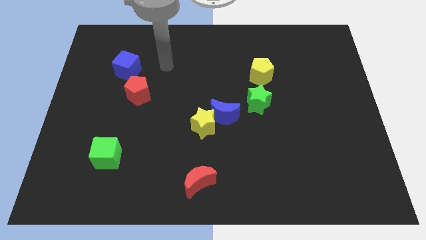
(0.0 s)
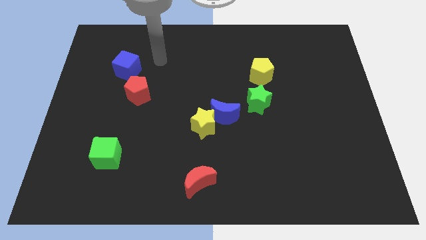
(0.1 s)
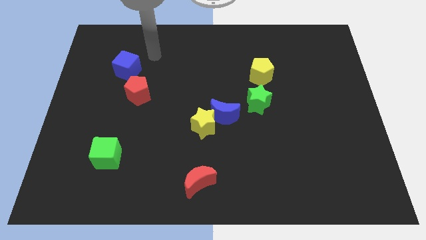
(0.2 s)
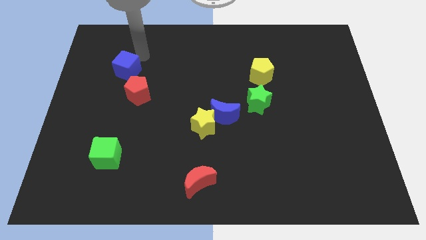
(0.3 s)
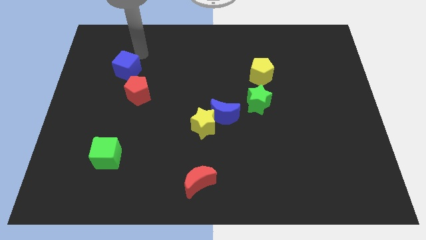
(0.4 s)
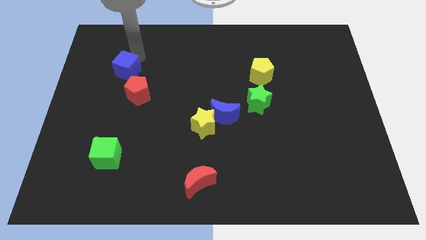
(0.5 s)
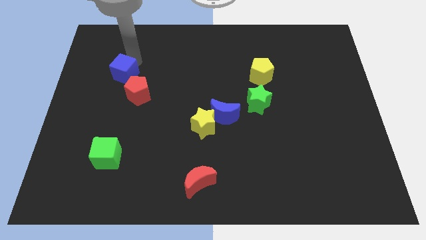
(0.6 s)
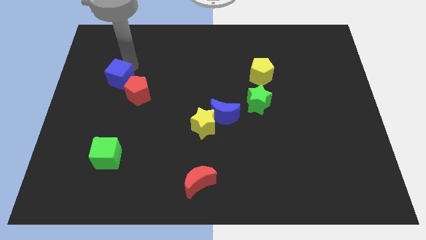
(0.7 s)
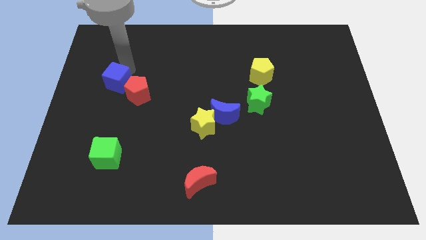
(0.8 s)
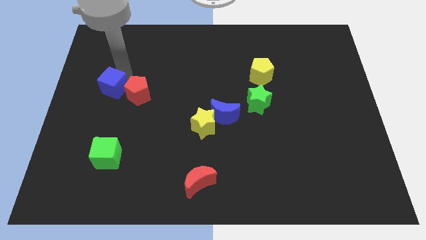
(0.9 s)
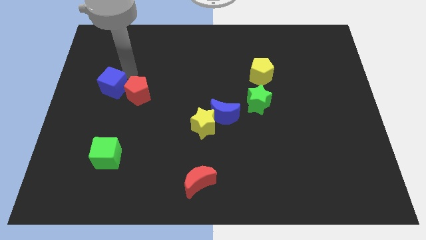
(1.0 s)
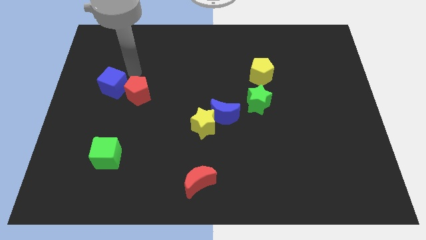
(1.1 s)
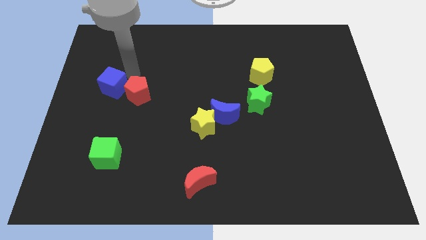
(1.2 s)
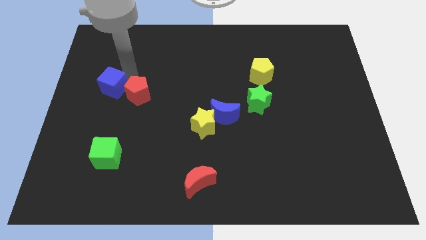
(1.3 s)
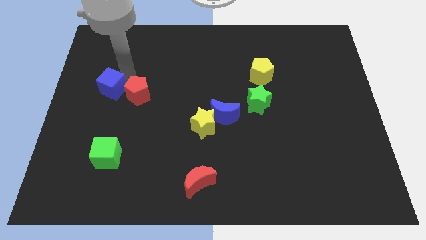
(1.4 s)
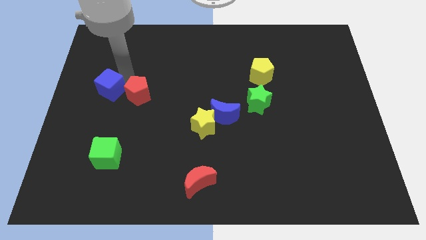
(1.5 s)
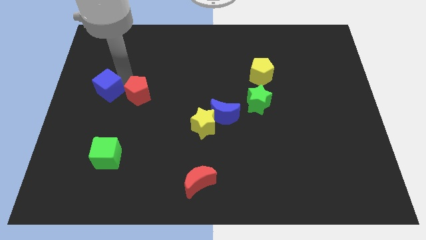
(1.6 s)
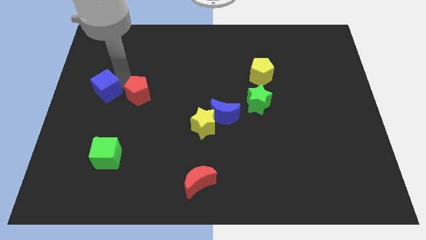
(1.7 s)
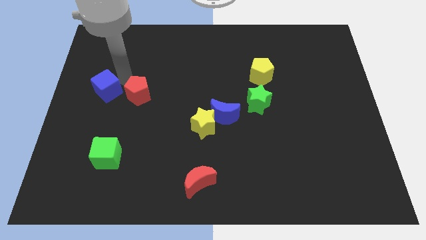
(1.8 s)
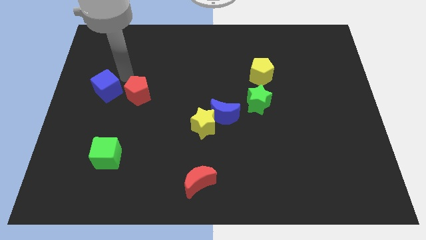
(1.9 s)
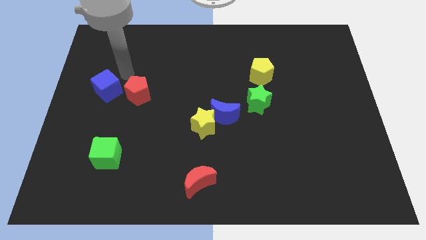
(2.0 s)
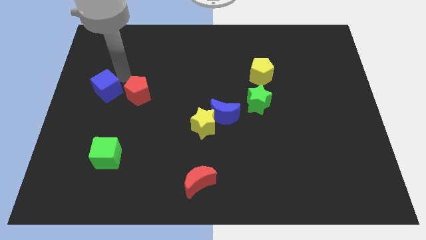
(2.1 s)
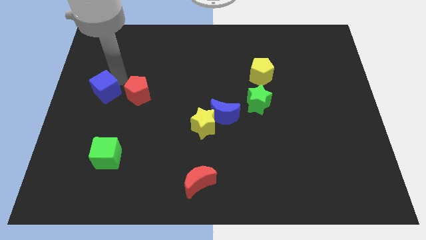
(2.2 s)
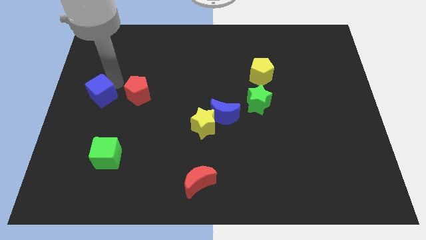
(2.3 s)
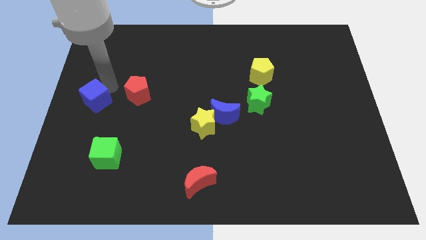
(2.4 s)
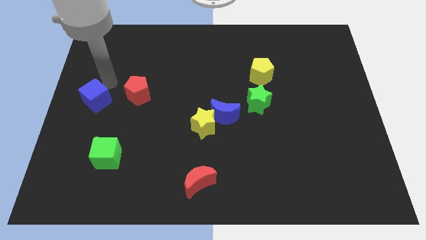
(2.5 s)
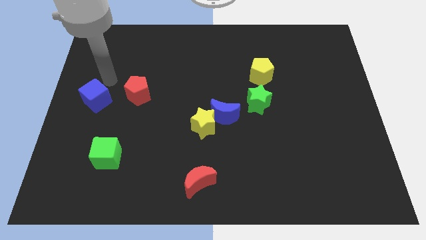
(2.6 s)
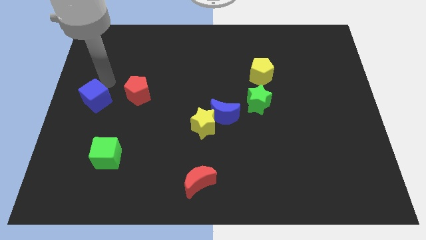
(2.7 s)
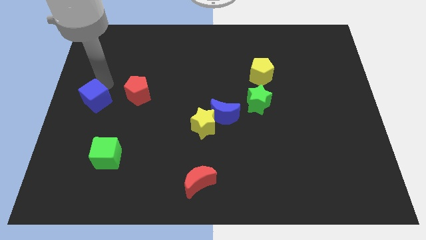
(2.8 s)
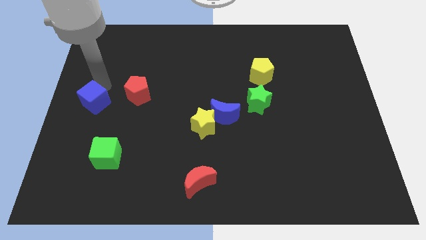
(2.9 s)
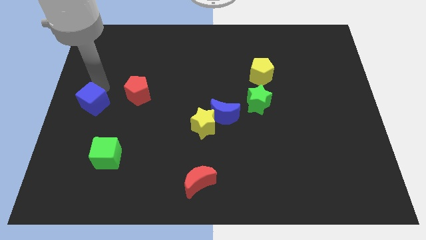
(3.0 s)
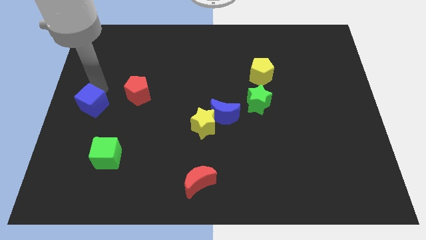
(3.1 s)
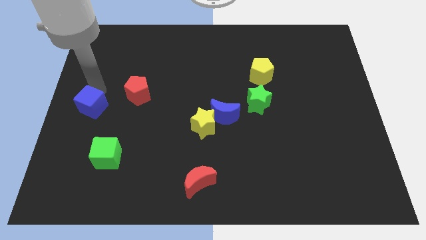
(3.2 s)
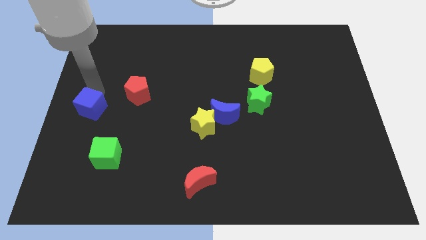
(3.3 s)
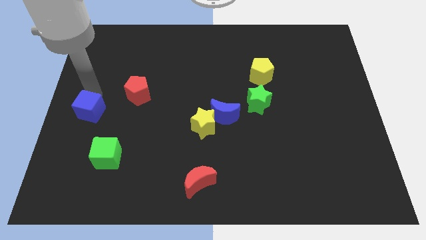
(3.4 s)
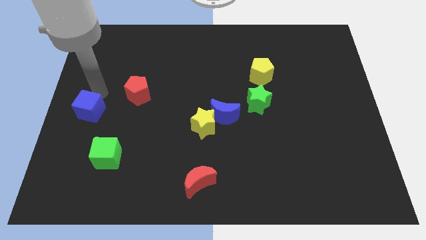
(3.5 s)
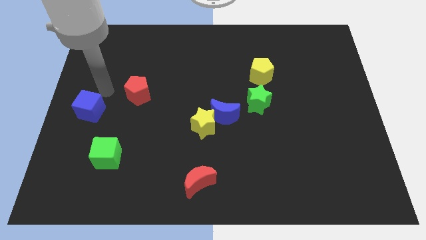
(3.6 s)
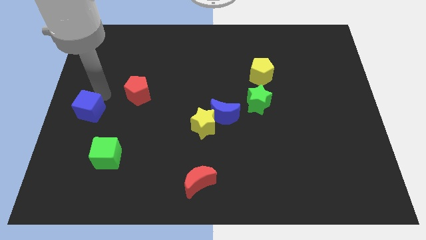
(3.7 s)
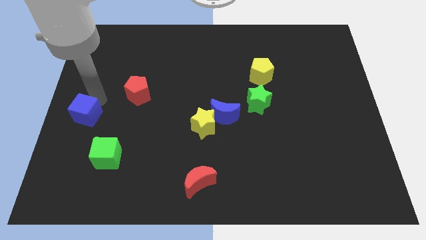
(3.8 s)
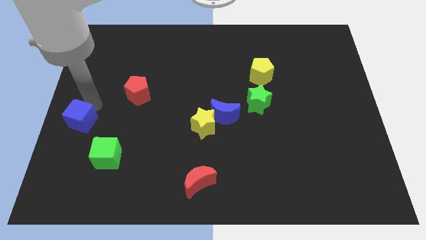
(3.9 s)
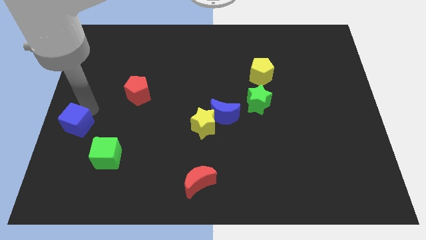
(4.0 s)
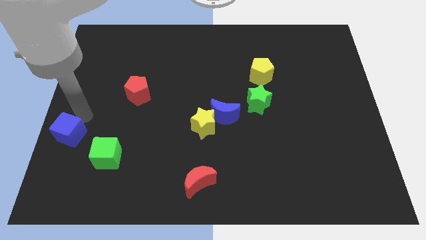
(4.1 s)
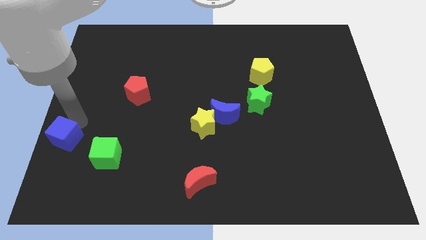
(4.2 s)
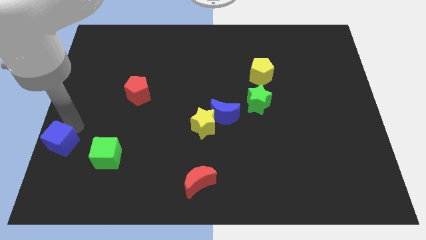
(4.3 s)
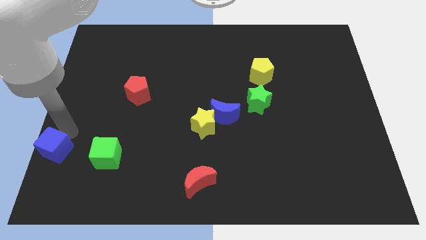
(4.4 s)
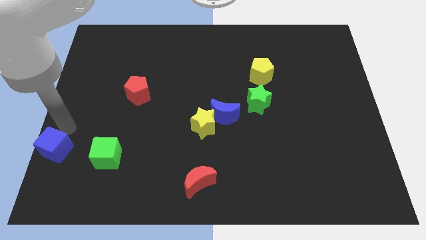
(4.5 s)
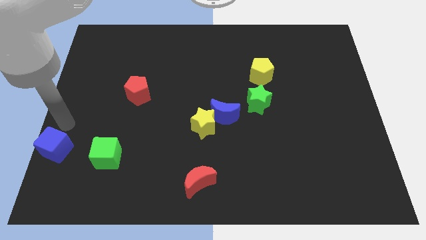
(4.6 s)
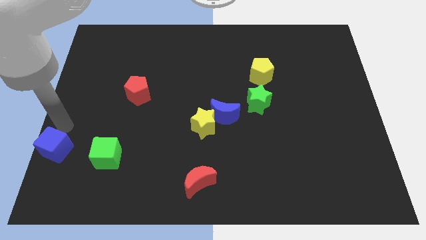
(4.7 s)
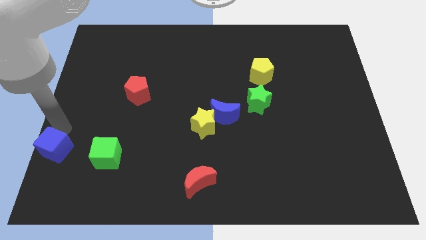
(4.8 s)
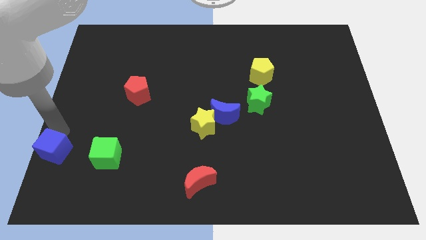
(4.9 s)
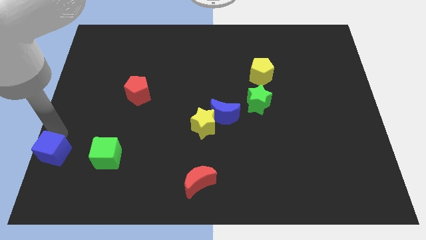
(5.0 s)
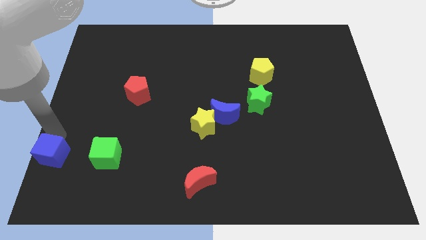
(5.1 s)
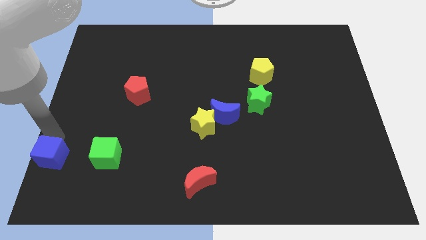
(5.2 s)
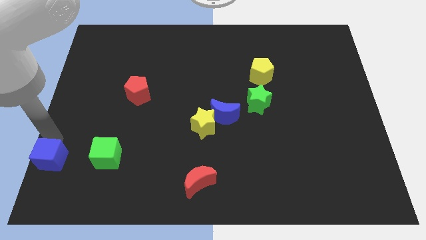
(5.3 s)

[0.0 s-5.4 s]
slide the blue cube to the bottom left
